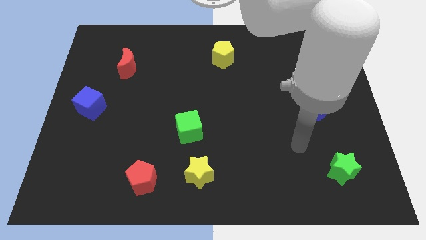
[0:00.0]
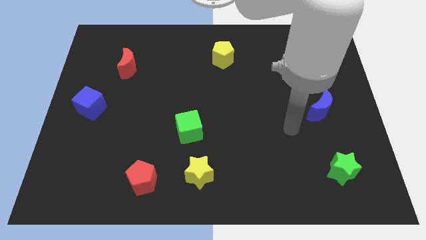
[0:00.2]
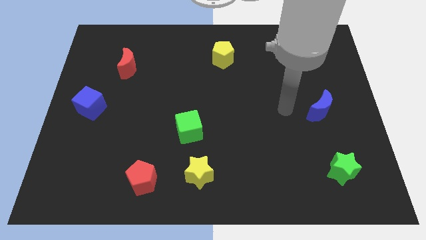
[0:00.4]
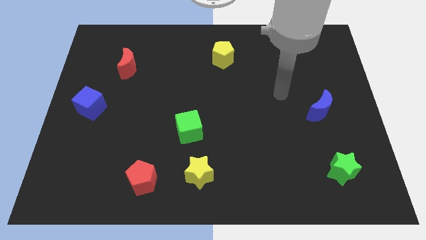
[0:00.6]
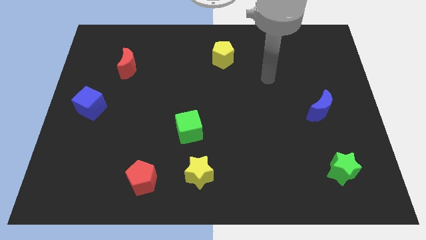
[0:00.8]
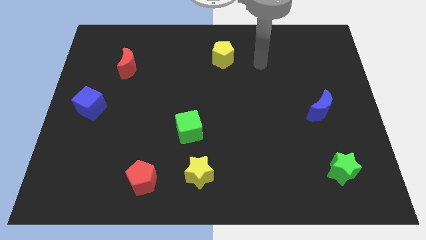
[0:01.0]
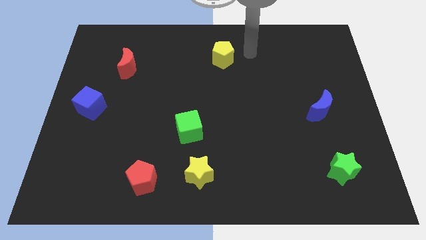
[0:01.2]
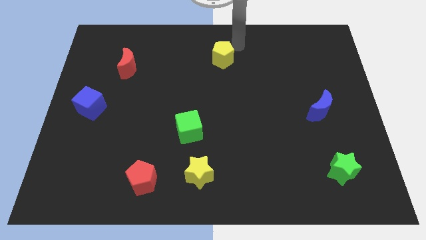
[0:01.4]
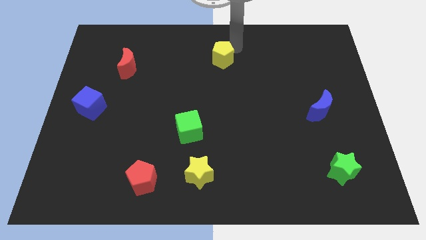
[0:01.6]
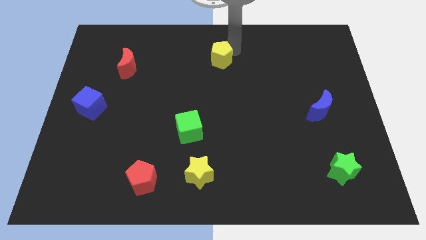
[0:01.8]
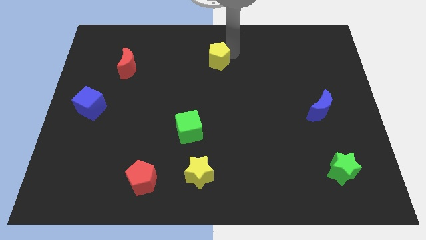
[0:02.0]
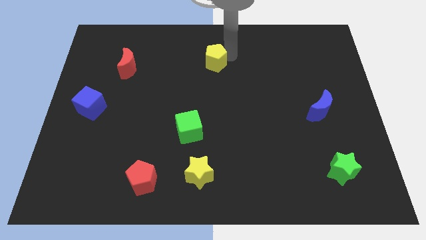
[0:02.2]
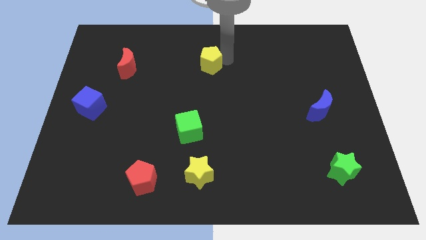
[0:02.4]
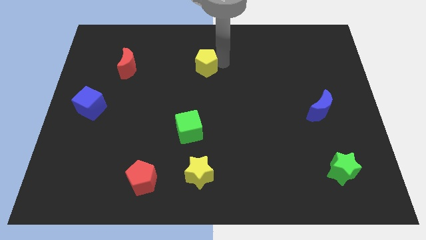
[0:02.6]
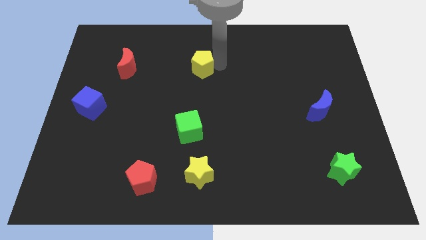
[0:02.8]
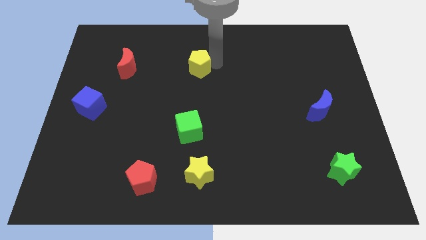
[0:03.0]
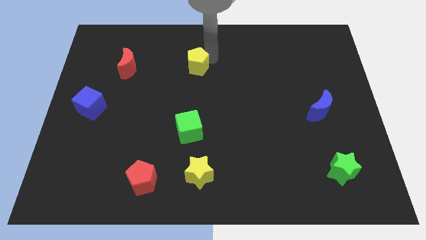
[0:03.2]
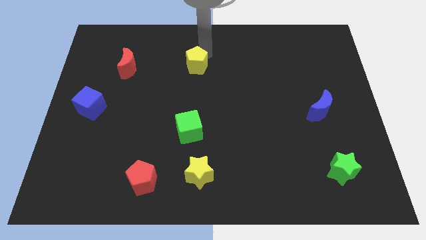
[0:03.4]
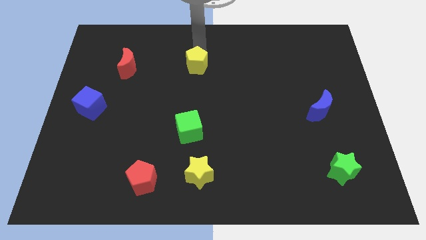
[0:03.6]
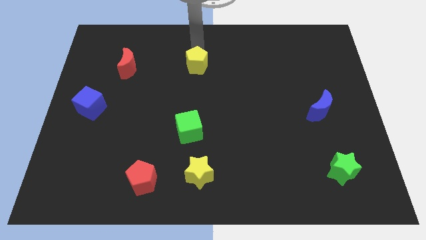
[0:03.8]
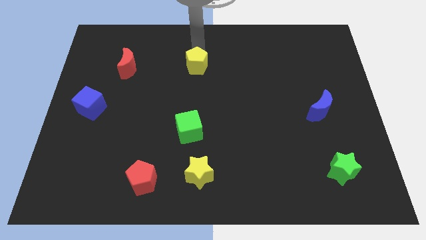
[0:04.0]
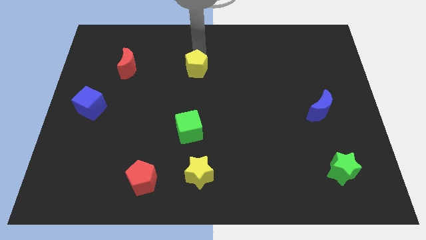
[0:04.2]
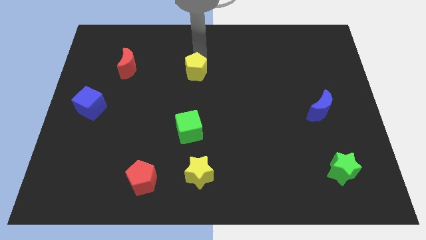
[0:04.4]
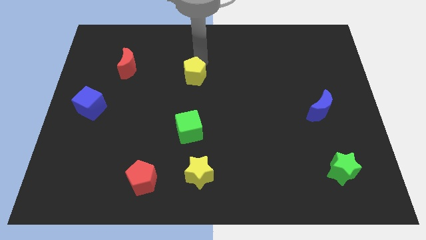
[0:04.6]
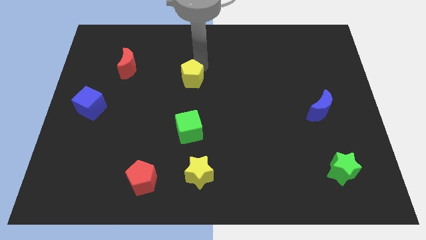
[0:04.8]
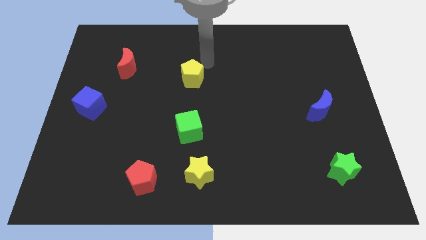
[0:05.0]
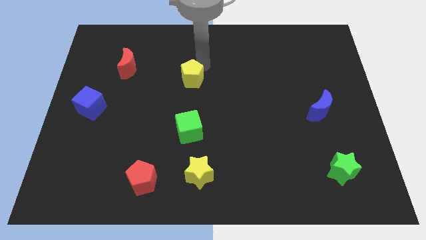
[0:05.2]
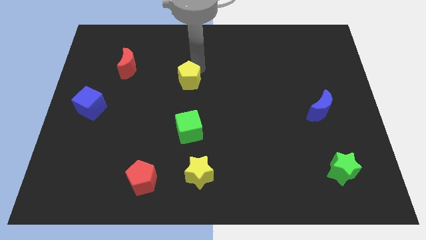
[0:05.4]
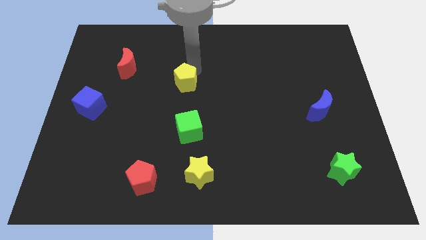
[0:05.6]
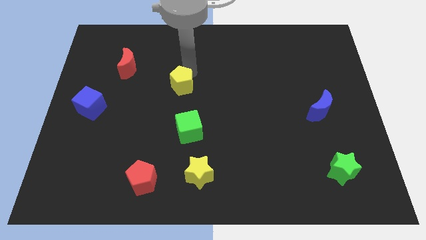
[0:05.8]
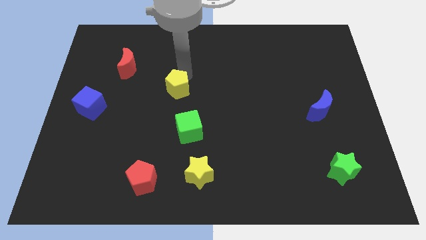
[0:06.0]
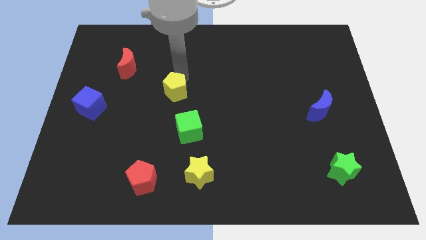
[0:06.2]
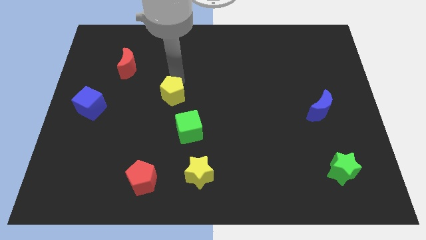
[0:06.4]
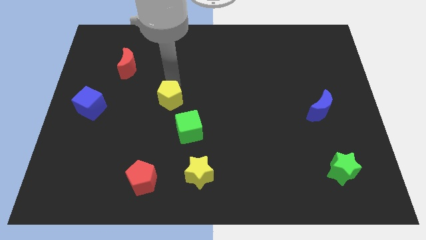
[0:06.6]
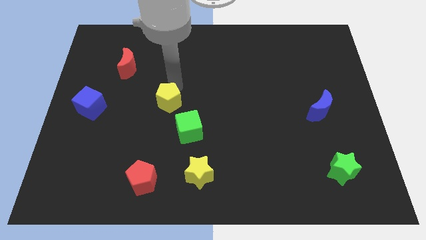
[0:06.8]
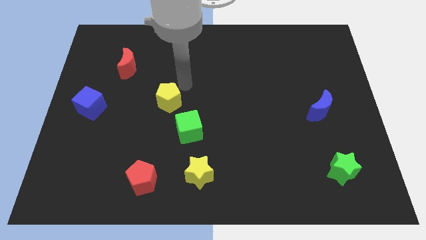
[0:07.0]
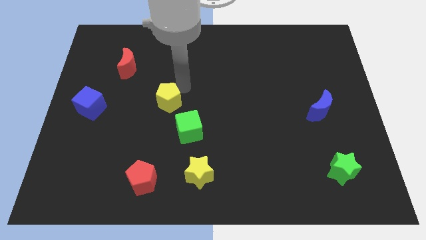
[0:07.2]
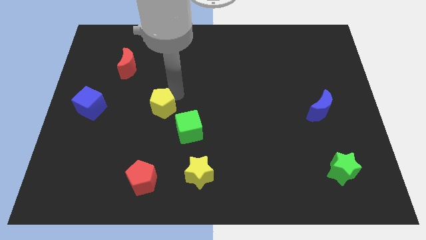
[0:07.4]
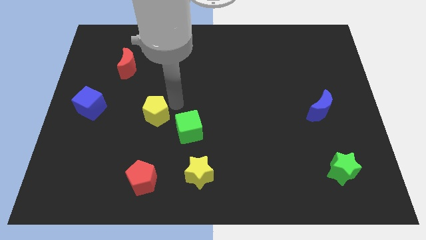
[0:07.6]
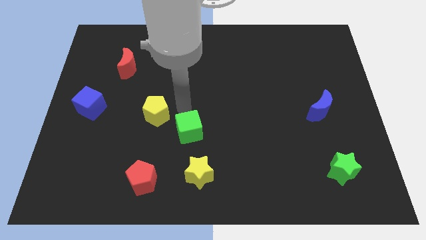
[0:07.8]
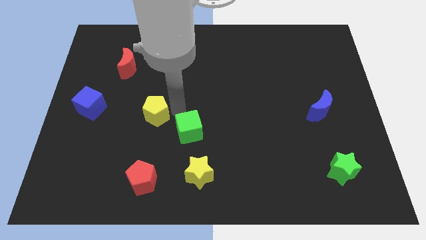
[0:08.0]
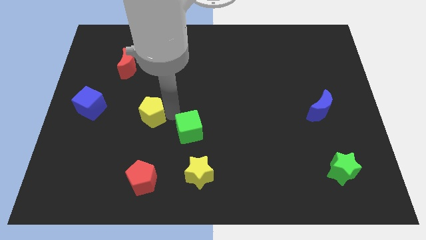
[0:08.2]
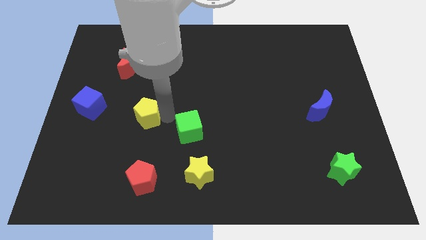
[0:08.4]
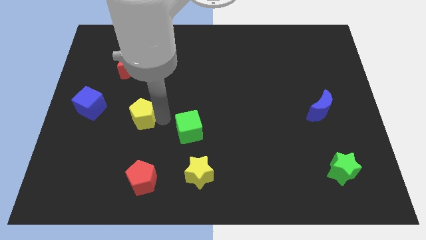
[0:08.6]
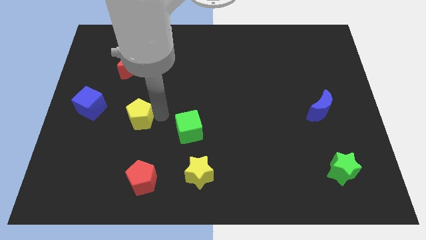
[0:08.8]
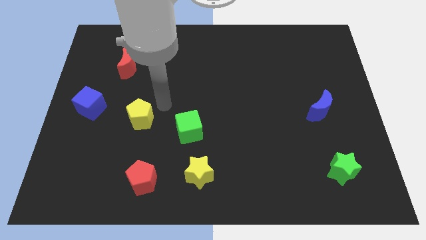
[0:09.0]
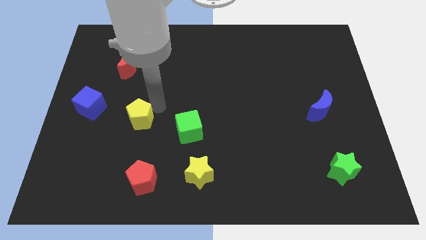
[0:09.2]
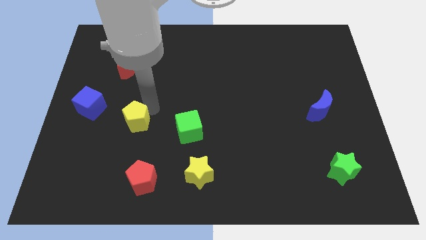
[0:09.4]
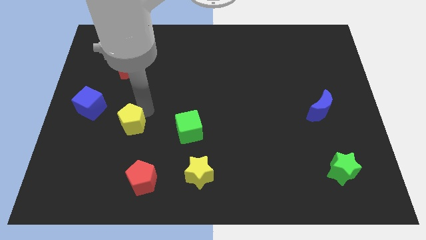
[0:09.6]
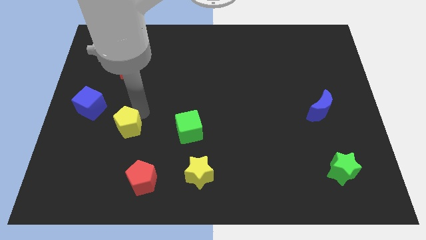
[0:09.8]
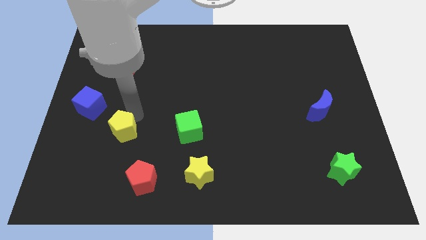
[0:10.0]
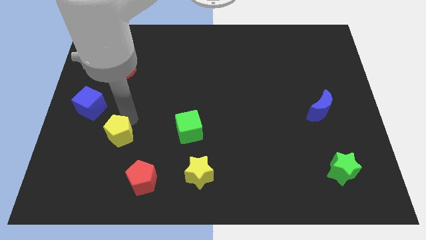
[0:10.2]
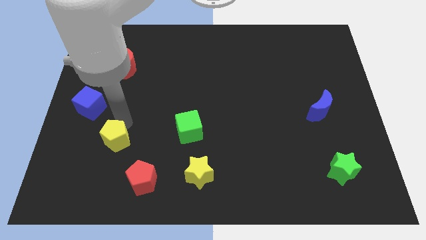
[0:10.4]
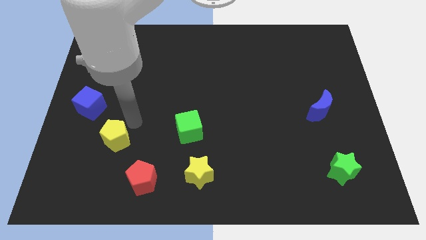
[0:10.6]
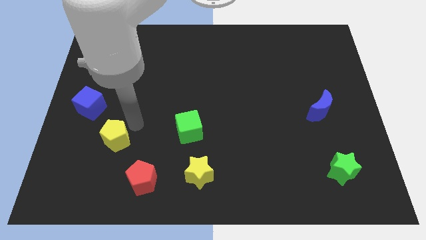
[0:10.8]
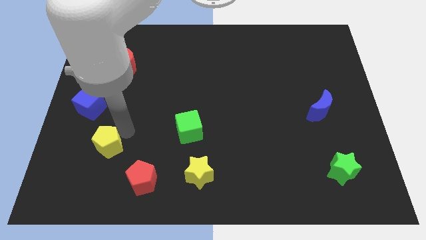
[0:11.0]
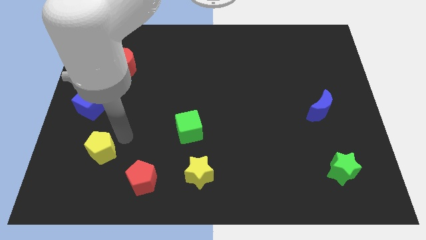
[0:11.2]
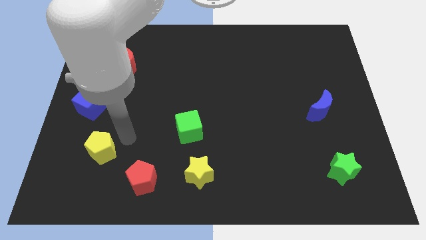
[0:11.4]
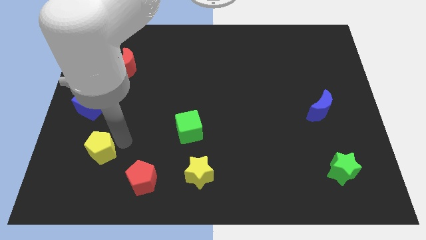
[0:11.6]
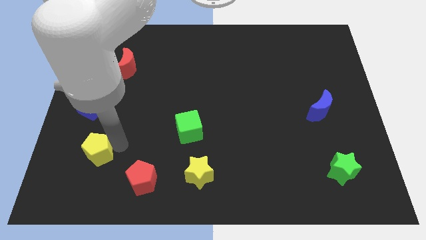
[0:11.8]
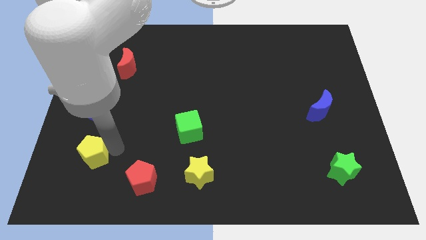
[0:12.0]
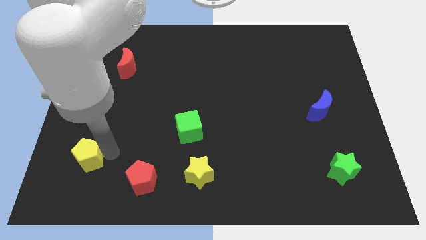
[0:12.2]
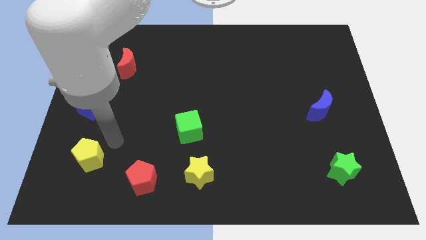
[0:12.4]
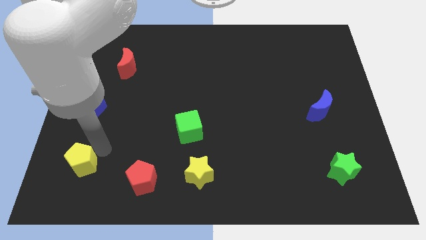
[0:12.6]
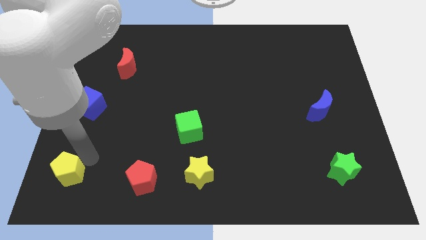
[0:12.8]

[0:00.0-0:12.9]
put the yellow pentagon to the bottom left of the board

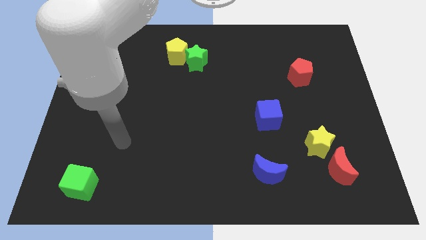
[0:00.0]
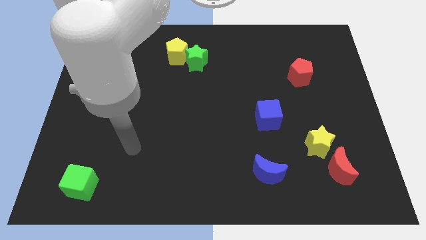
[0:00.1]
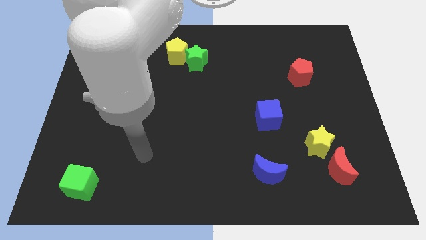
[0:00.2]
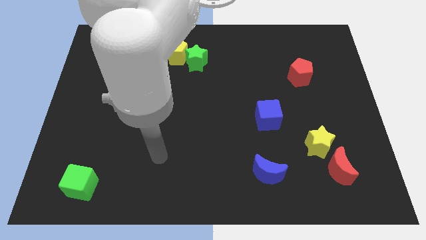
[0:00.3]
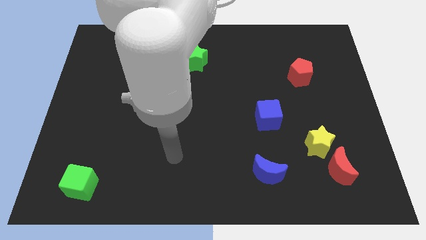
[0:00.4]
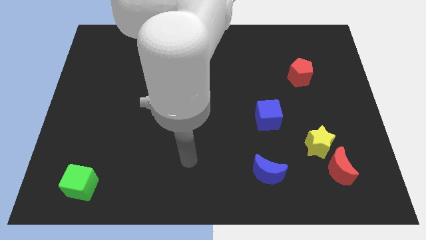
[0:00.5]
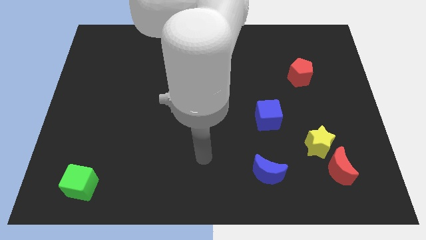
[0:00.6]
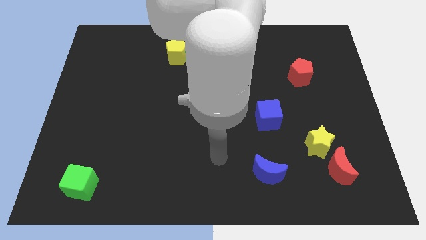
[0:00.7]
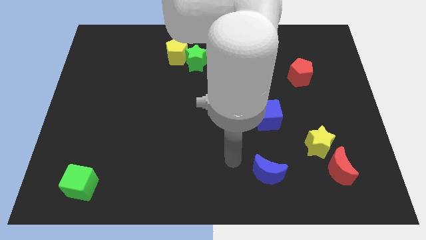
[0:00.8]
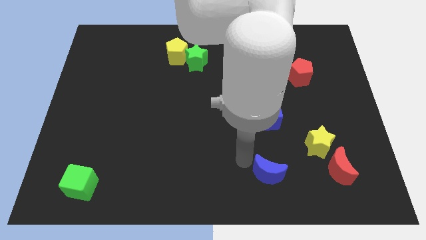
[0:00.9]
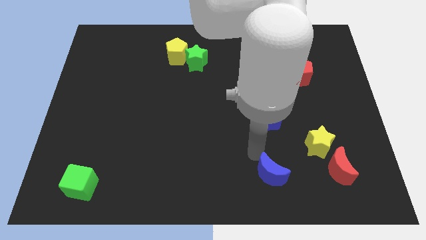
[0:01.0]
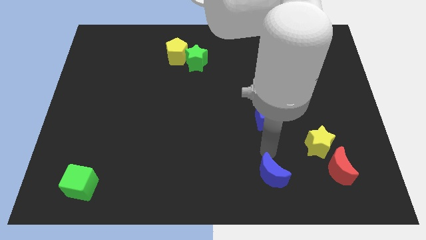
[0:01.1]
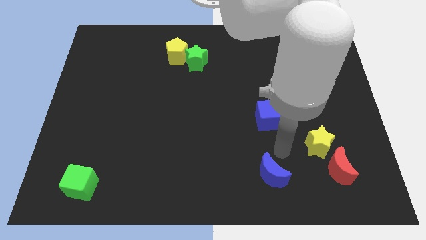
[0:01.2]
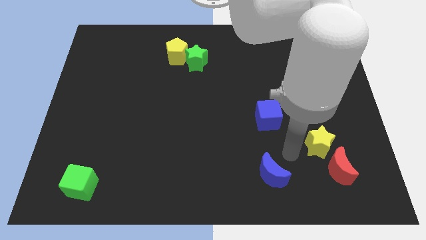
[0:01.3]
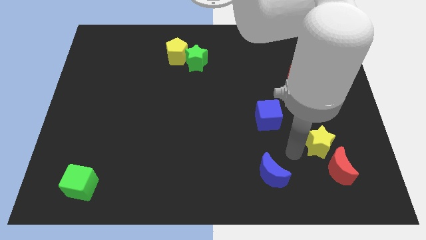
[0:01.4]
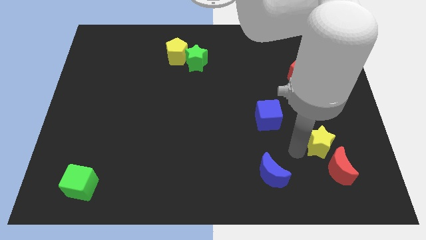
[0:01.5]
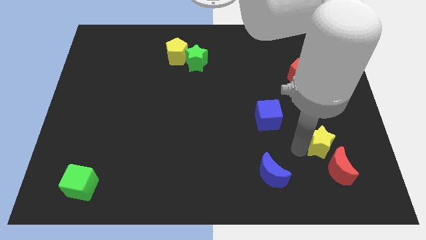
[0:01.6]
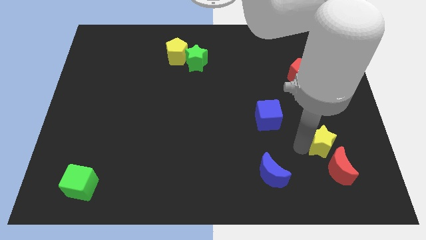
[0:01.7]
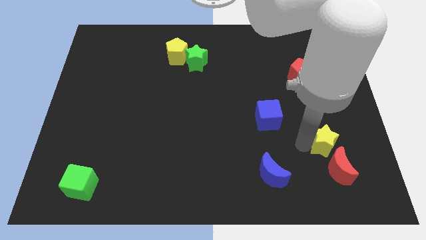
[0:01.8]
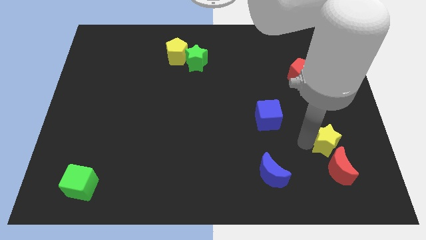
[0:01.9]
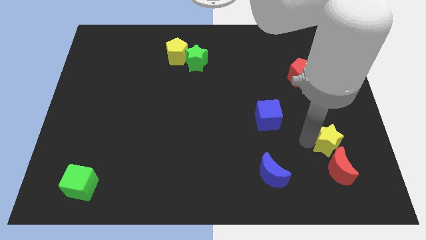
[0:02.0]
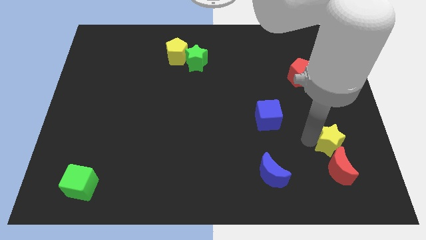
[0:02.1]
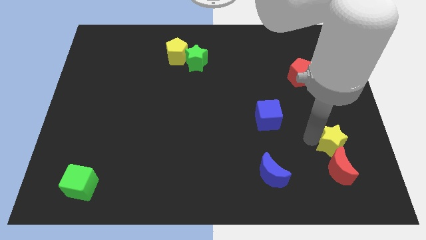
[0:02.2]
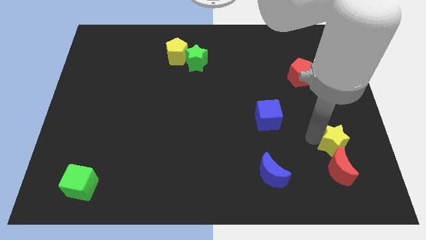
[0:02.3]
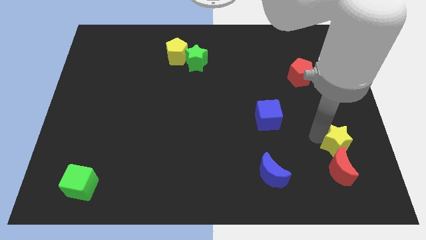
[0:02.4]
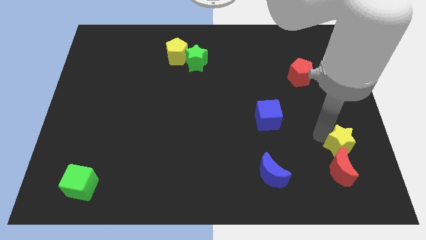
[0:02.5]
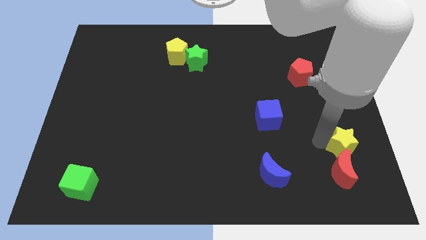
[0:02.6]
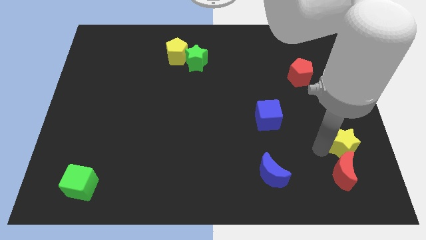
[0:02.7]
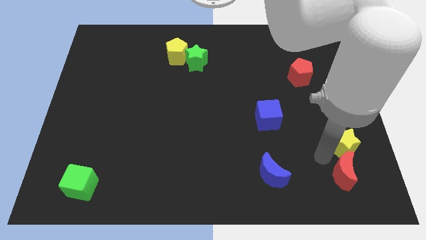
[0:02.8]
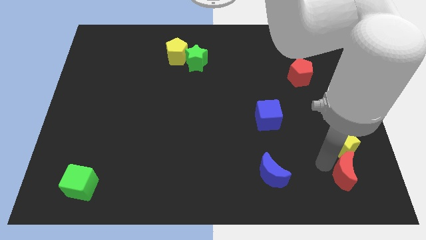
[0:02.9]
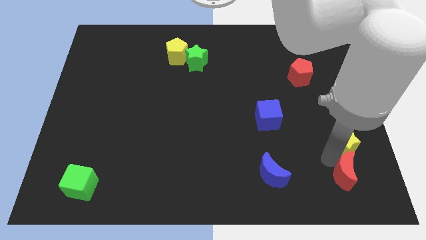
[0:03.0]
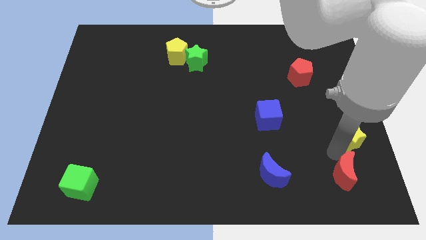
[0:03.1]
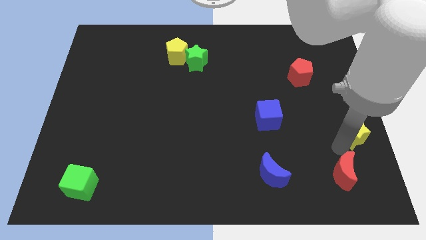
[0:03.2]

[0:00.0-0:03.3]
push the yellow star to the center right
